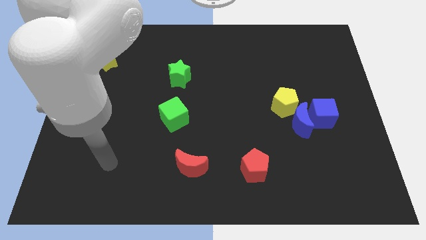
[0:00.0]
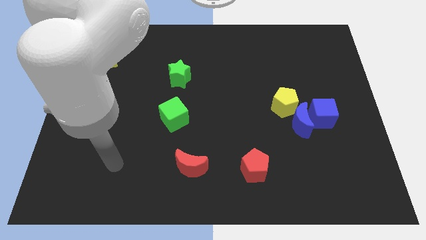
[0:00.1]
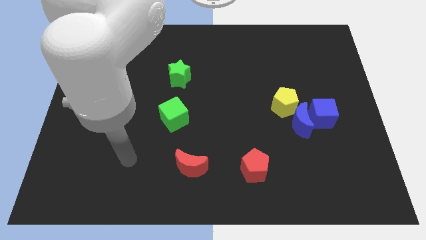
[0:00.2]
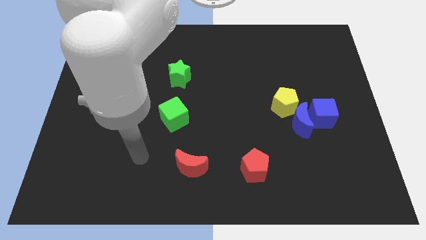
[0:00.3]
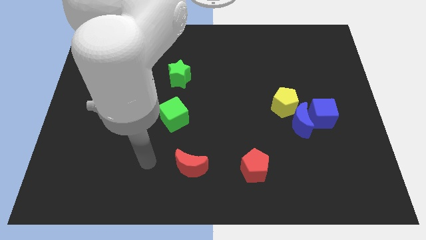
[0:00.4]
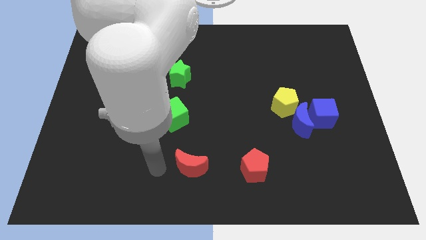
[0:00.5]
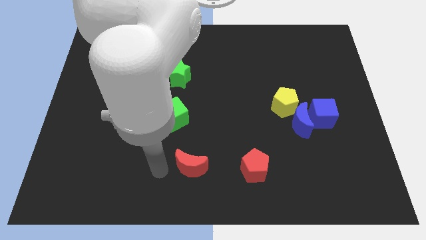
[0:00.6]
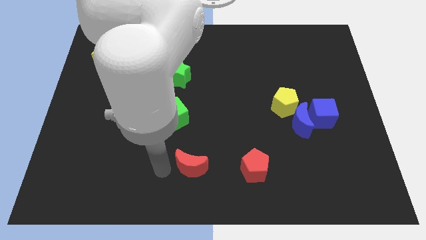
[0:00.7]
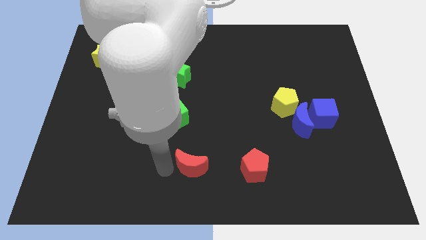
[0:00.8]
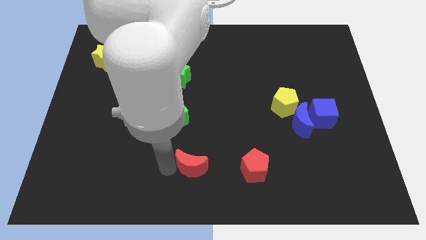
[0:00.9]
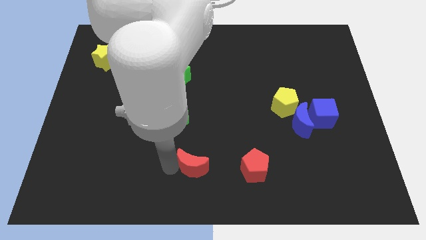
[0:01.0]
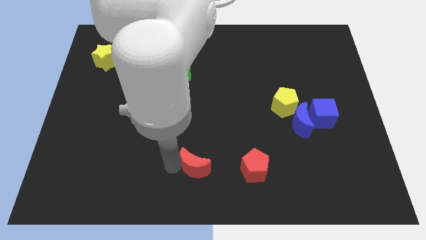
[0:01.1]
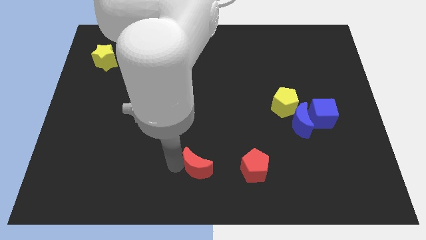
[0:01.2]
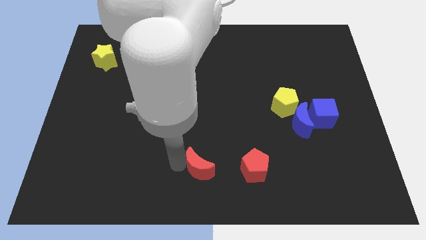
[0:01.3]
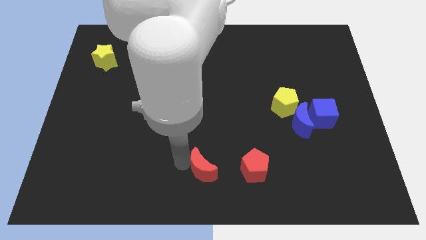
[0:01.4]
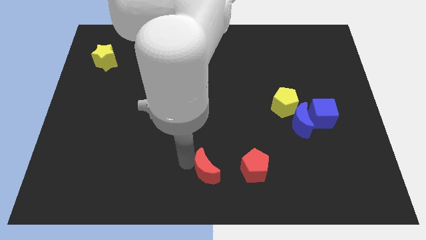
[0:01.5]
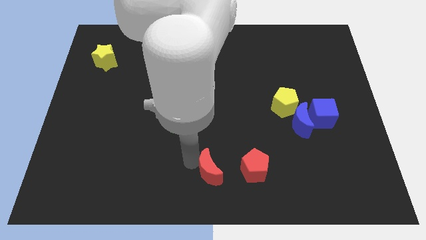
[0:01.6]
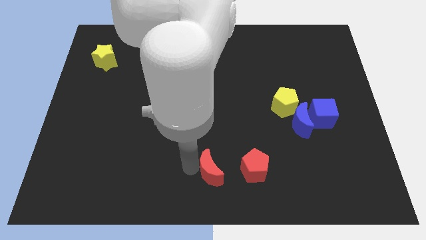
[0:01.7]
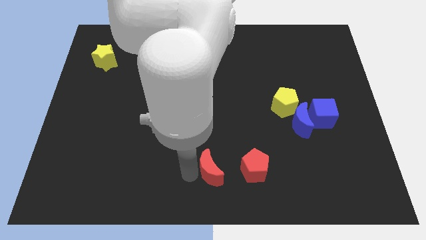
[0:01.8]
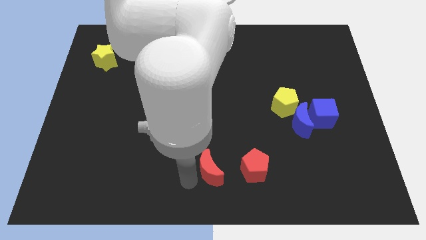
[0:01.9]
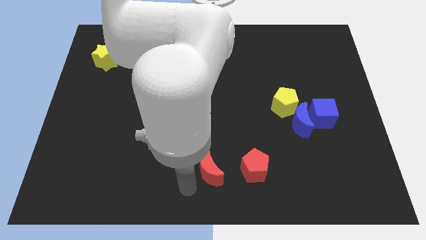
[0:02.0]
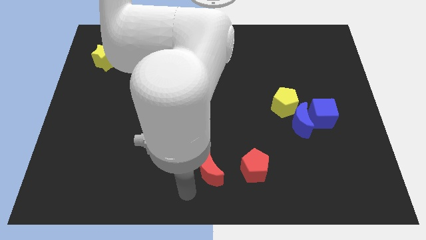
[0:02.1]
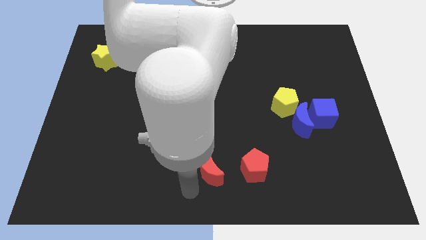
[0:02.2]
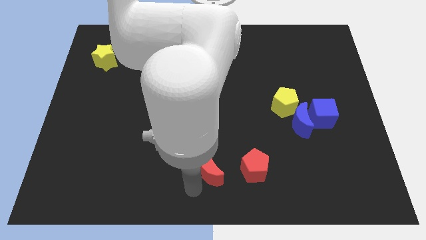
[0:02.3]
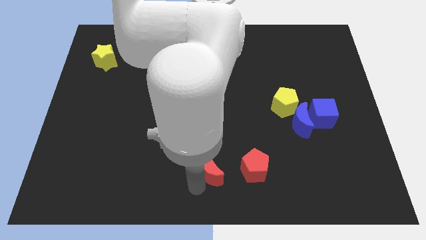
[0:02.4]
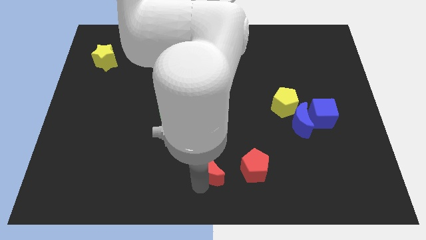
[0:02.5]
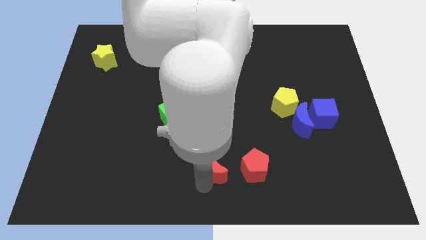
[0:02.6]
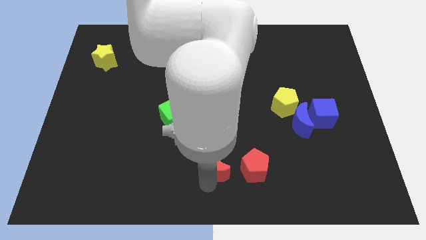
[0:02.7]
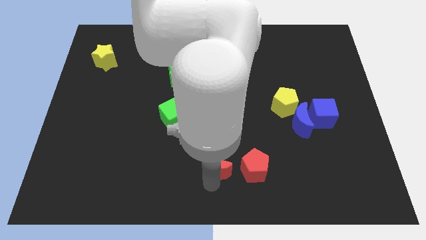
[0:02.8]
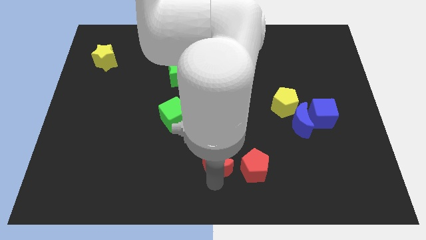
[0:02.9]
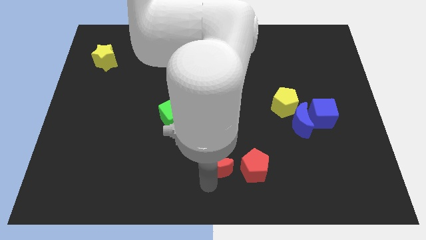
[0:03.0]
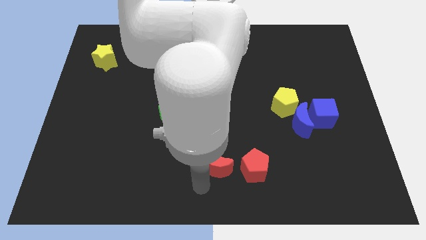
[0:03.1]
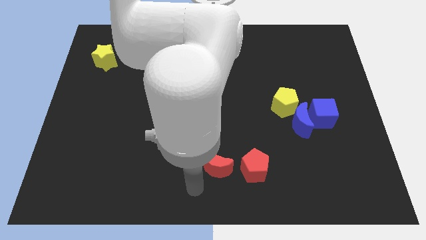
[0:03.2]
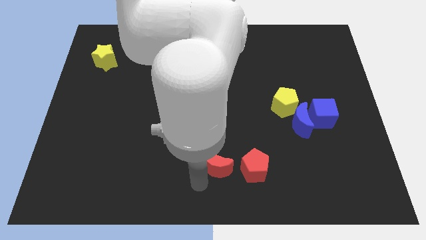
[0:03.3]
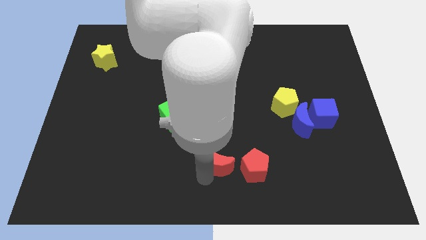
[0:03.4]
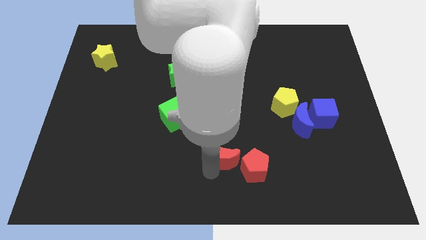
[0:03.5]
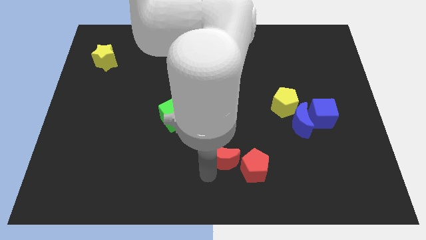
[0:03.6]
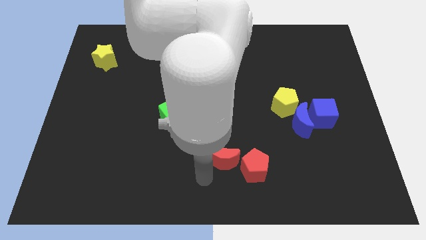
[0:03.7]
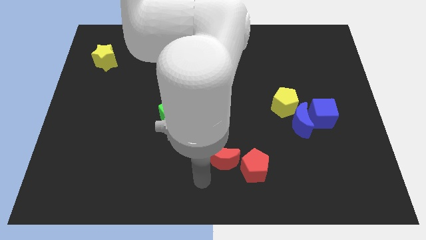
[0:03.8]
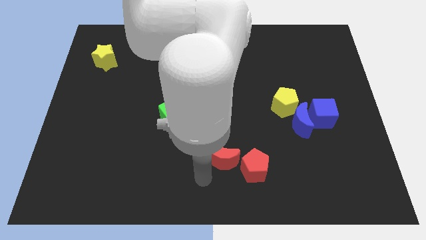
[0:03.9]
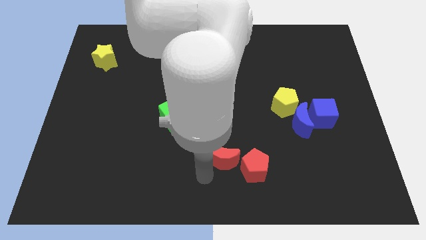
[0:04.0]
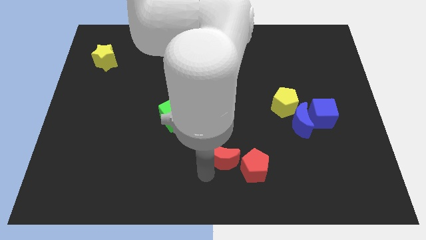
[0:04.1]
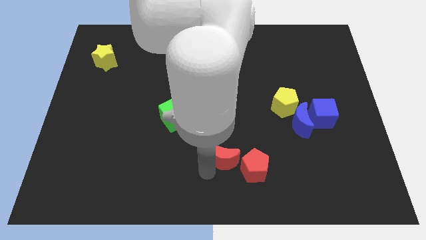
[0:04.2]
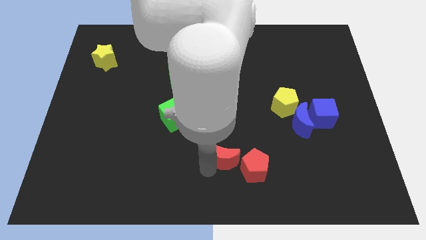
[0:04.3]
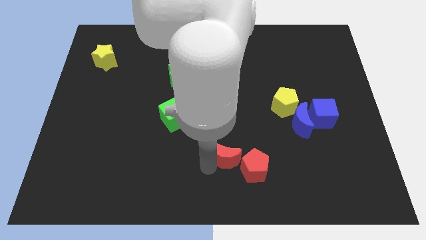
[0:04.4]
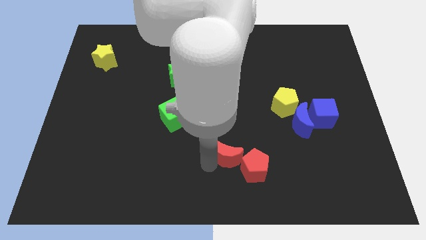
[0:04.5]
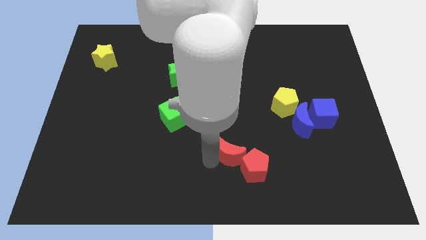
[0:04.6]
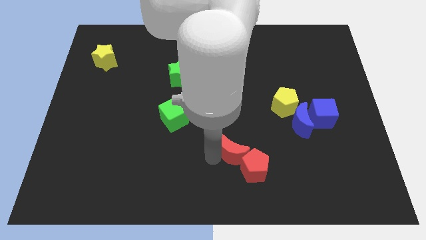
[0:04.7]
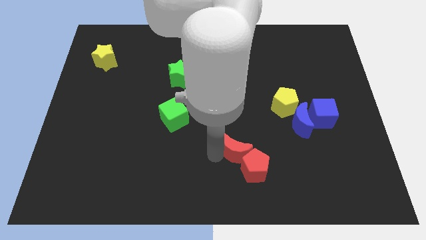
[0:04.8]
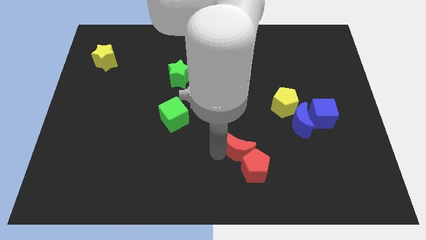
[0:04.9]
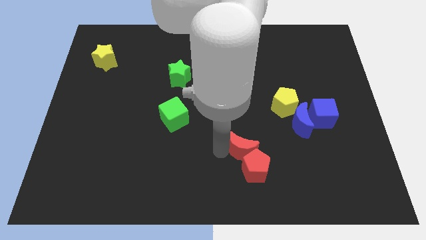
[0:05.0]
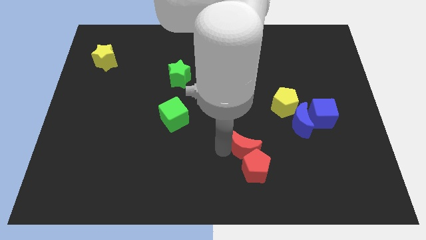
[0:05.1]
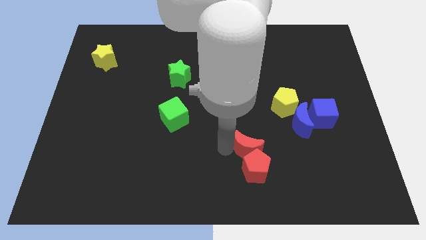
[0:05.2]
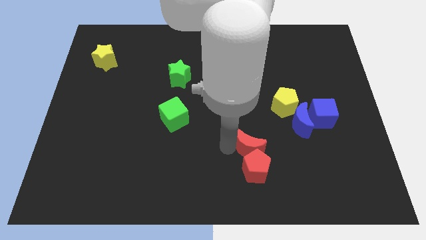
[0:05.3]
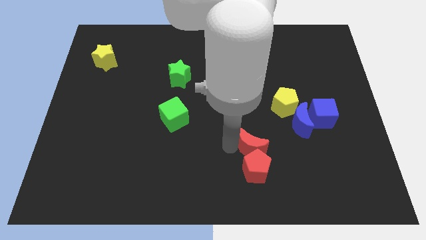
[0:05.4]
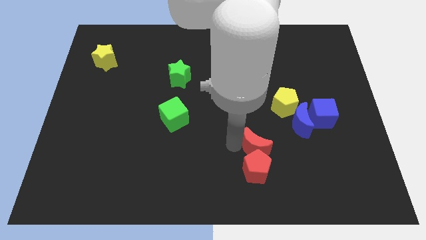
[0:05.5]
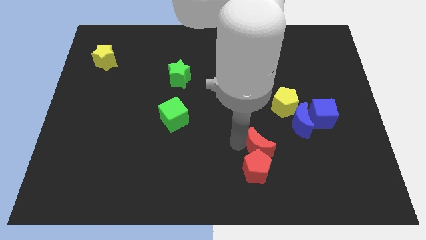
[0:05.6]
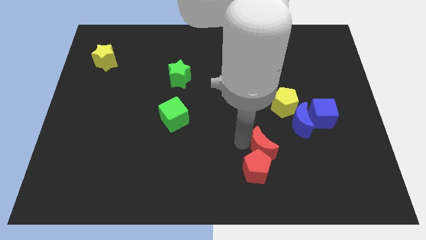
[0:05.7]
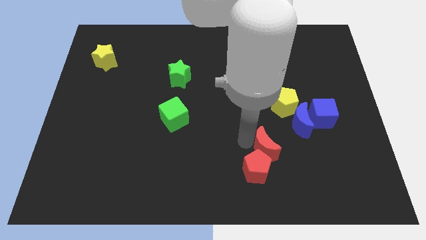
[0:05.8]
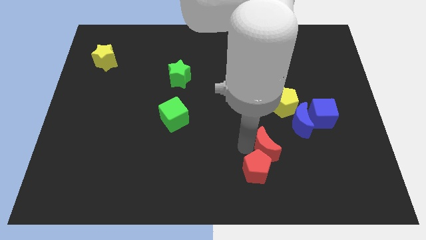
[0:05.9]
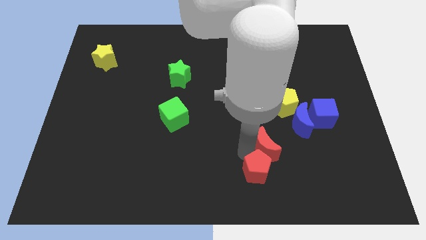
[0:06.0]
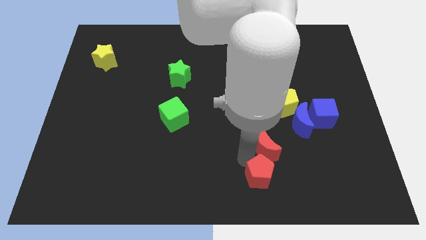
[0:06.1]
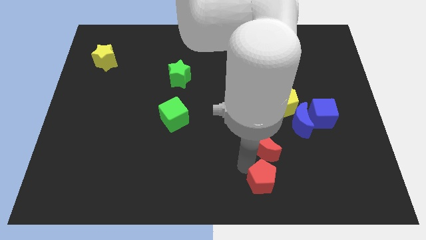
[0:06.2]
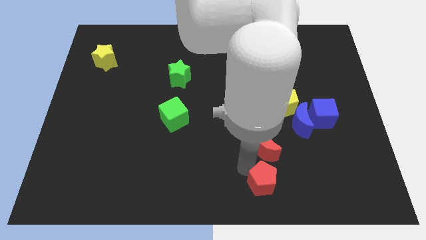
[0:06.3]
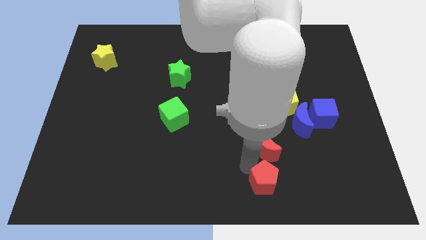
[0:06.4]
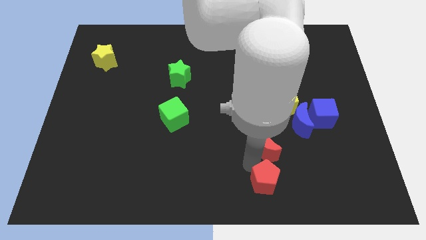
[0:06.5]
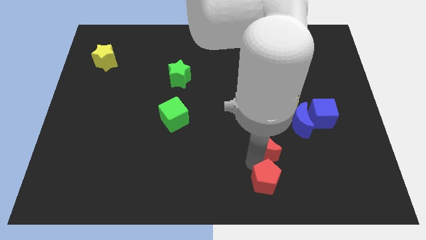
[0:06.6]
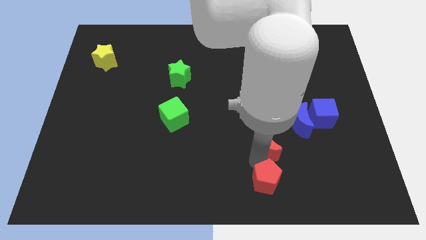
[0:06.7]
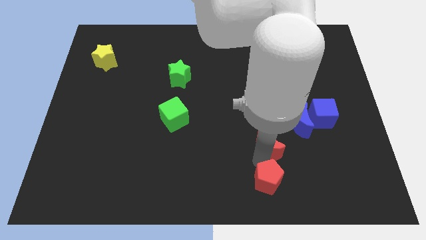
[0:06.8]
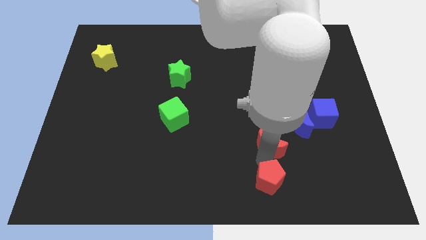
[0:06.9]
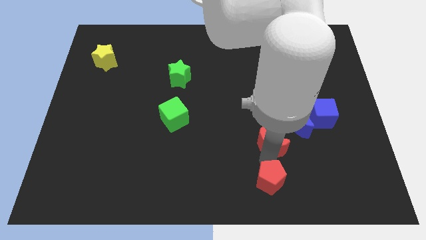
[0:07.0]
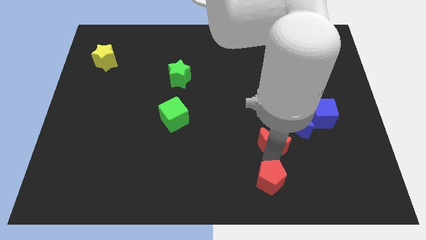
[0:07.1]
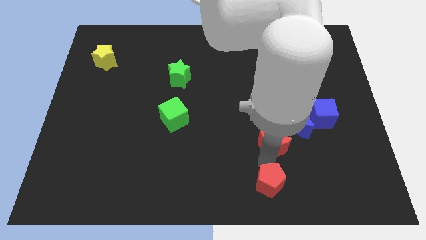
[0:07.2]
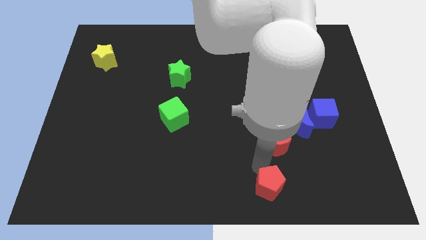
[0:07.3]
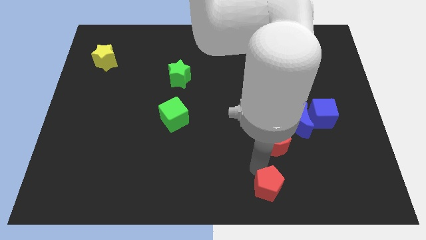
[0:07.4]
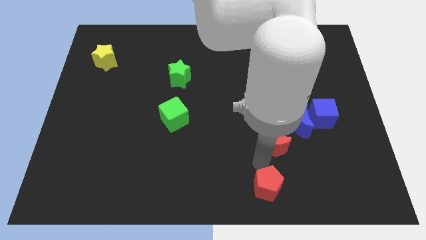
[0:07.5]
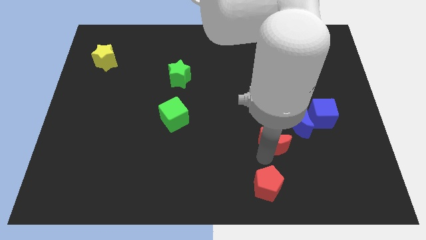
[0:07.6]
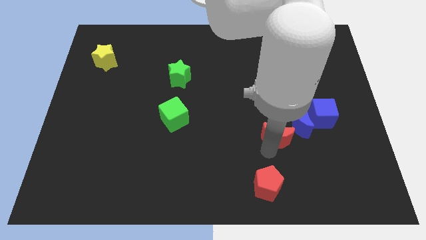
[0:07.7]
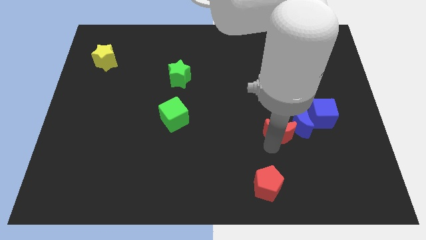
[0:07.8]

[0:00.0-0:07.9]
move the red moon close to the blue moon

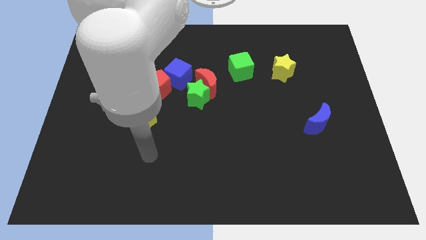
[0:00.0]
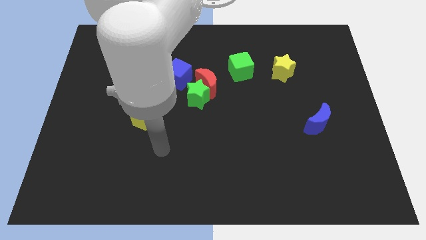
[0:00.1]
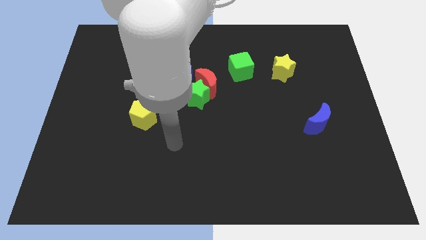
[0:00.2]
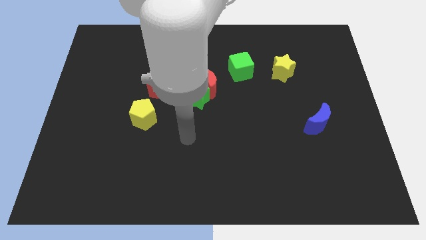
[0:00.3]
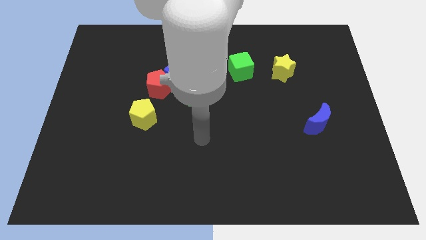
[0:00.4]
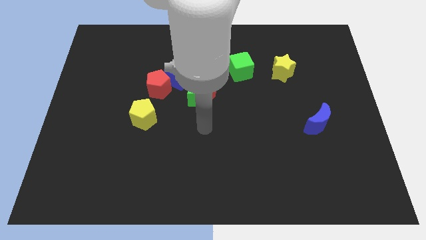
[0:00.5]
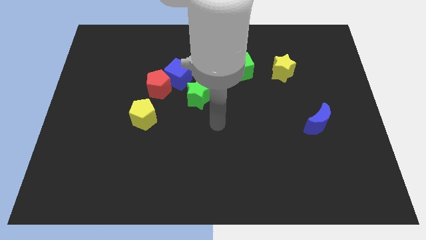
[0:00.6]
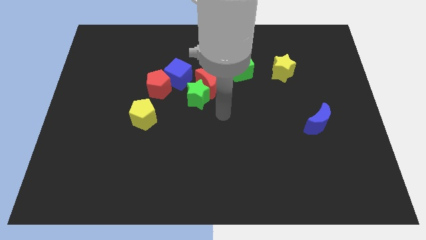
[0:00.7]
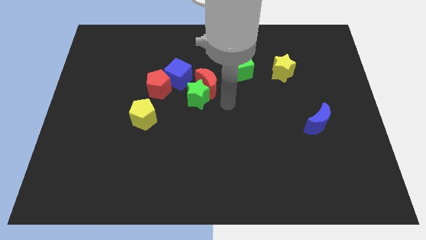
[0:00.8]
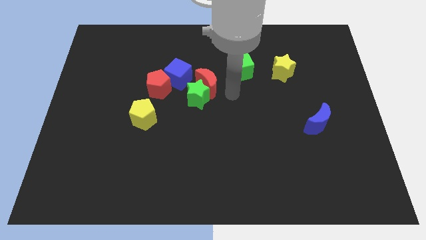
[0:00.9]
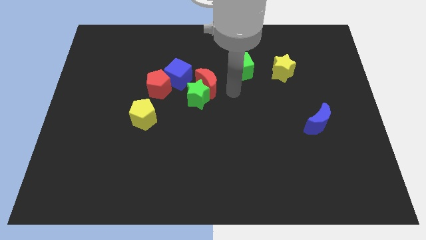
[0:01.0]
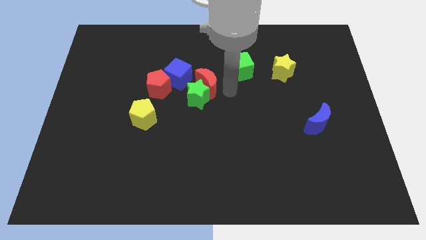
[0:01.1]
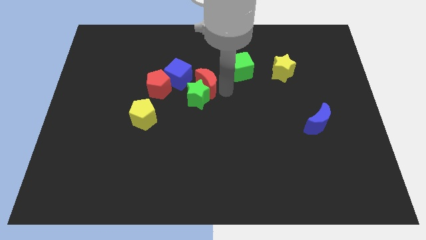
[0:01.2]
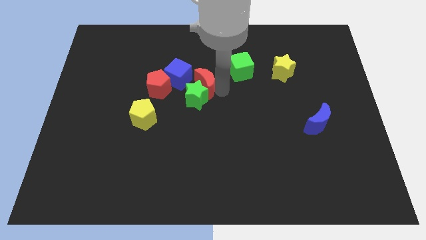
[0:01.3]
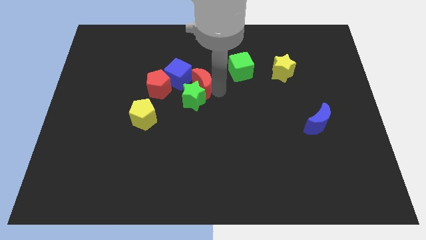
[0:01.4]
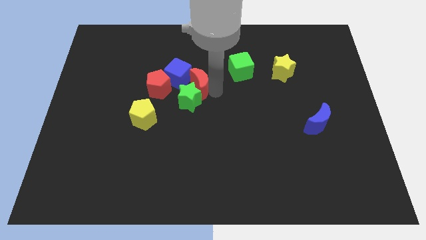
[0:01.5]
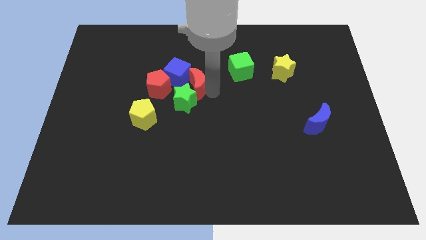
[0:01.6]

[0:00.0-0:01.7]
slide the red moon to the blue cube
